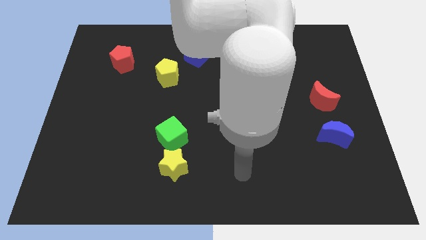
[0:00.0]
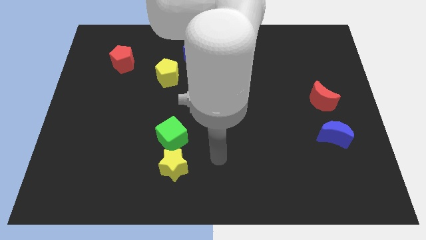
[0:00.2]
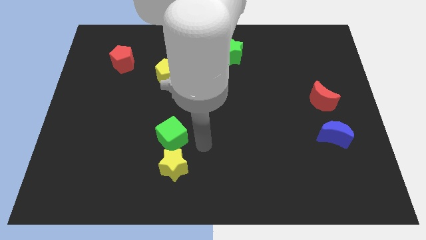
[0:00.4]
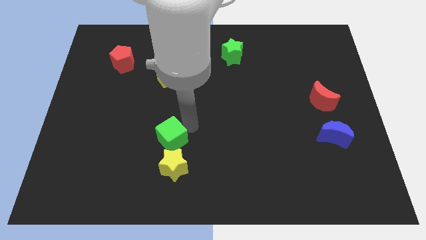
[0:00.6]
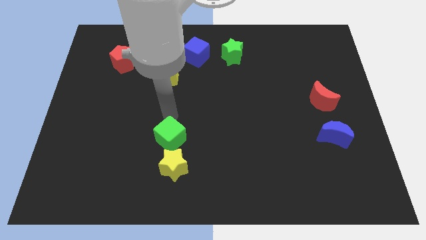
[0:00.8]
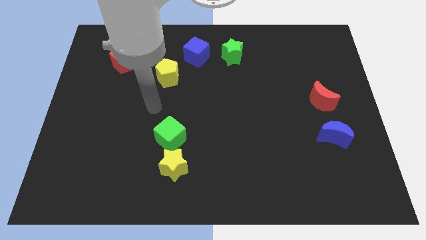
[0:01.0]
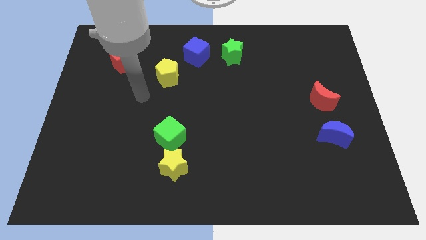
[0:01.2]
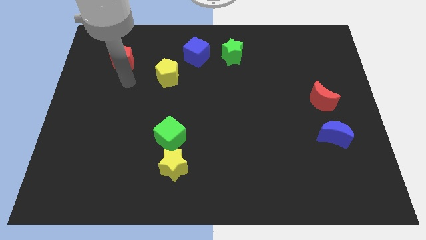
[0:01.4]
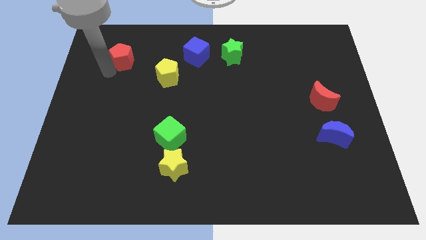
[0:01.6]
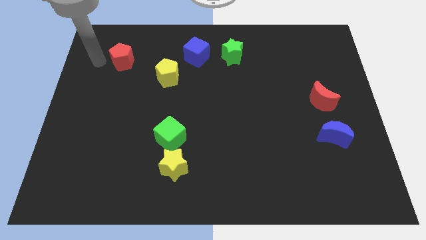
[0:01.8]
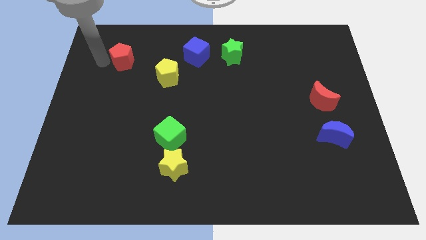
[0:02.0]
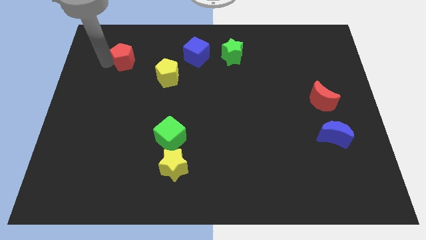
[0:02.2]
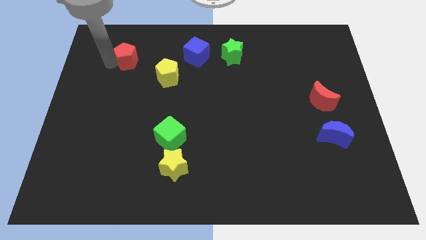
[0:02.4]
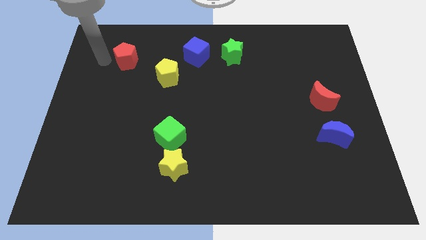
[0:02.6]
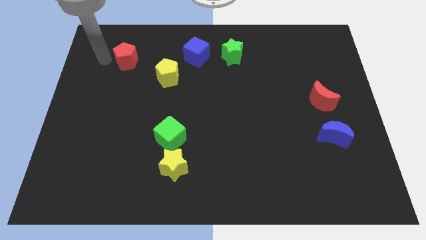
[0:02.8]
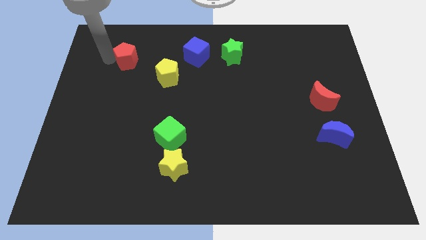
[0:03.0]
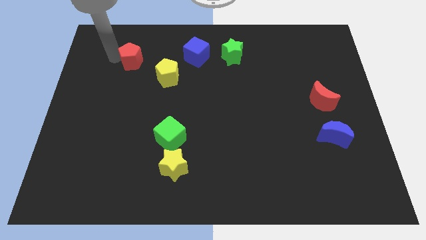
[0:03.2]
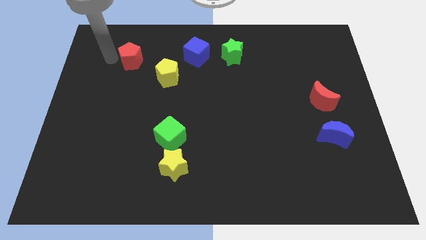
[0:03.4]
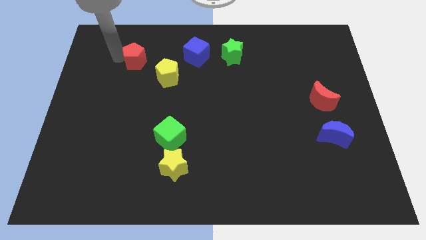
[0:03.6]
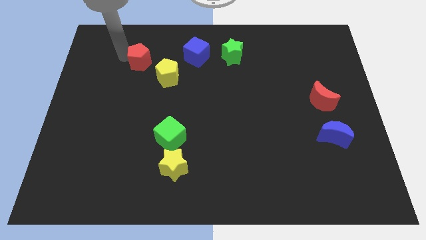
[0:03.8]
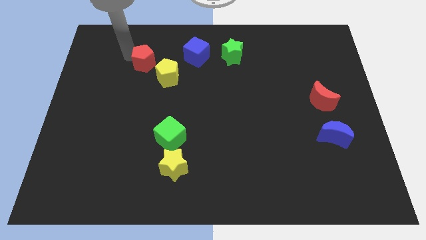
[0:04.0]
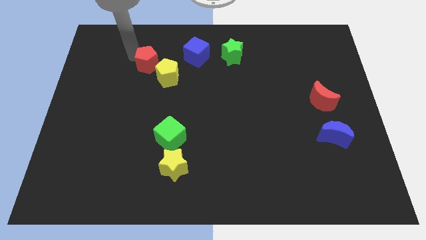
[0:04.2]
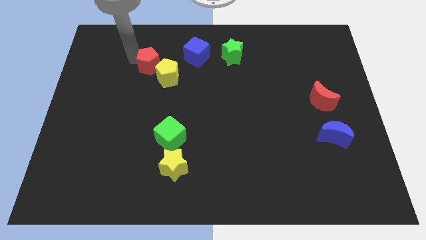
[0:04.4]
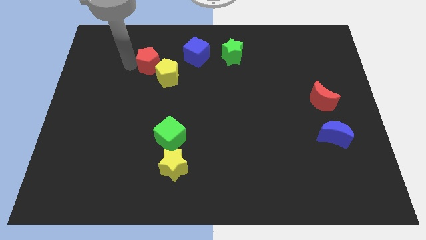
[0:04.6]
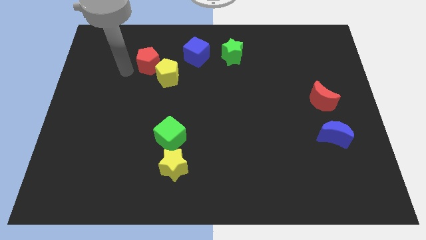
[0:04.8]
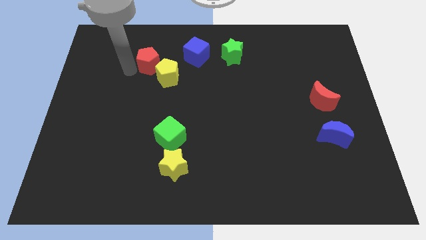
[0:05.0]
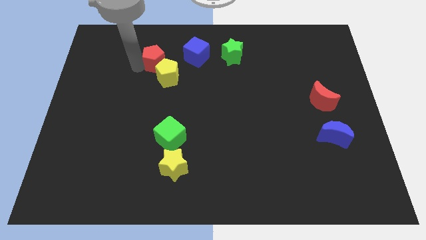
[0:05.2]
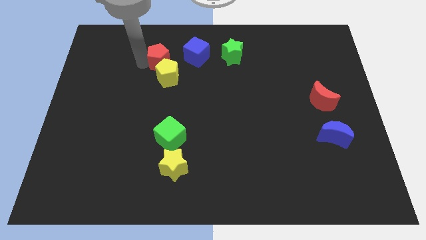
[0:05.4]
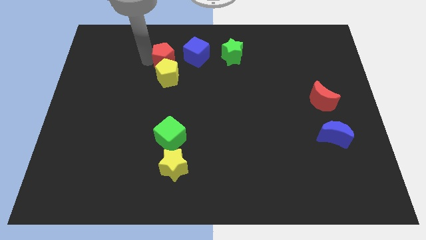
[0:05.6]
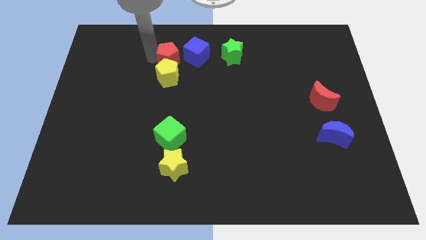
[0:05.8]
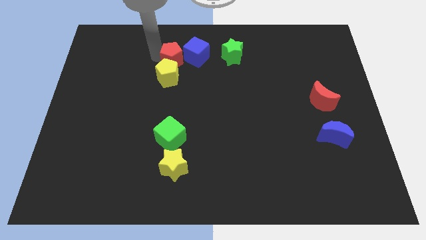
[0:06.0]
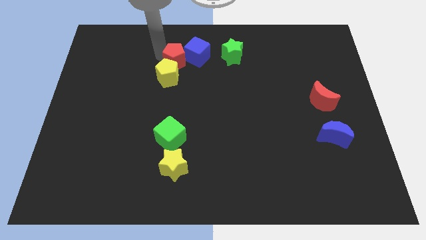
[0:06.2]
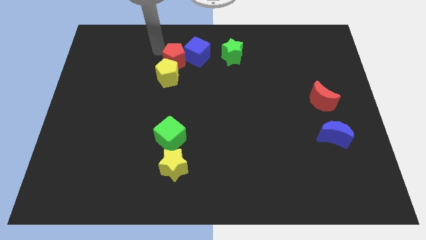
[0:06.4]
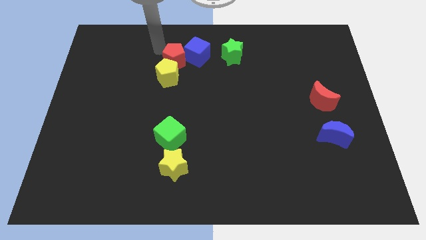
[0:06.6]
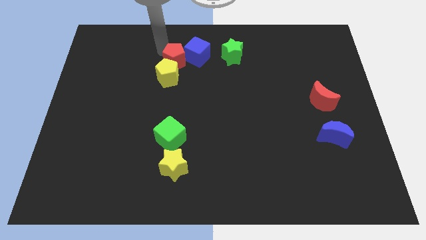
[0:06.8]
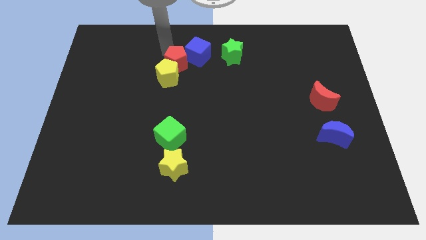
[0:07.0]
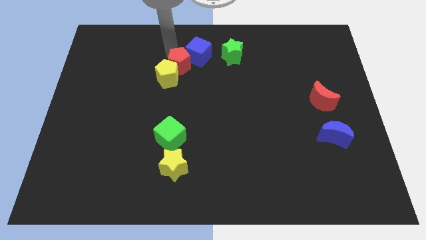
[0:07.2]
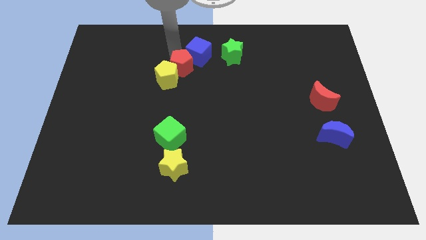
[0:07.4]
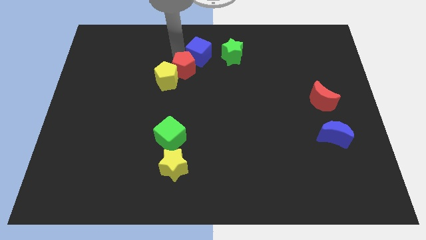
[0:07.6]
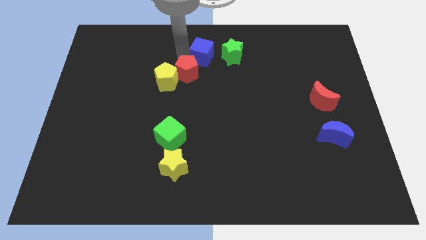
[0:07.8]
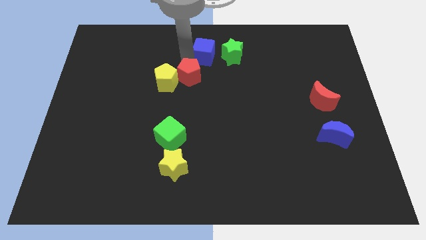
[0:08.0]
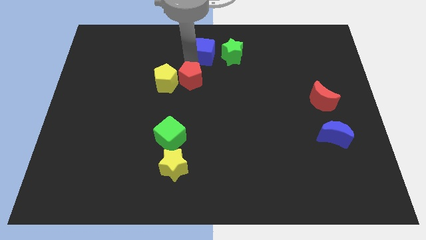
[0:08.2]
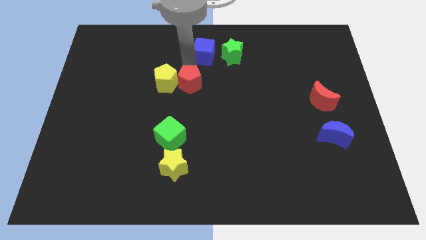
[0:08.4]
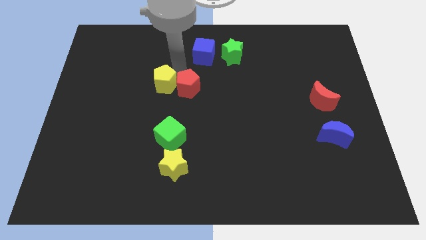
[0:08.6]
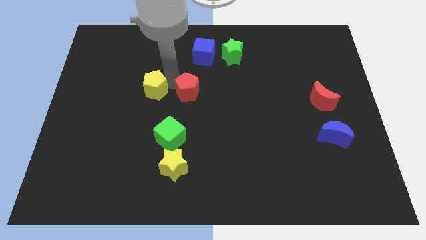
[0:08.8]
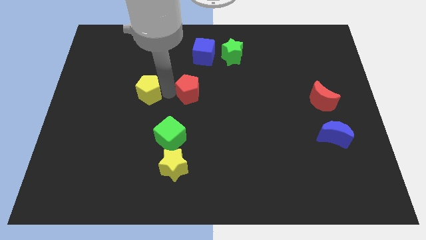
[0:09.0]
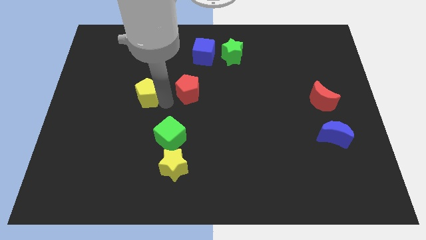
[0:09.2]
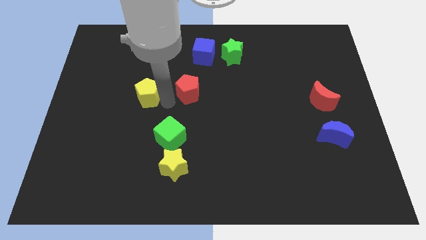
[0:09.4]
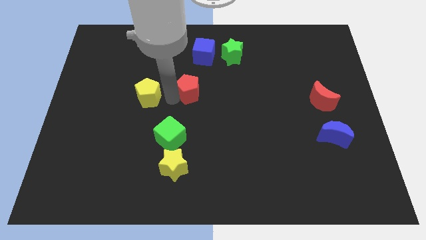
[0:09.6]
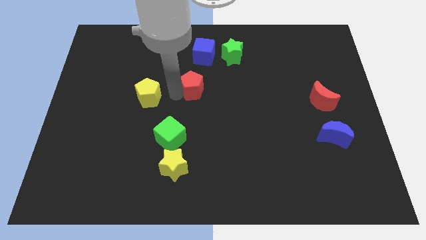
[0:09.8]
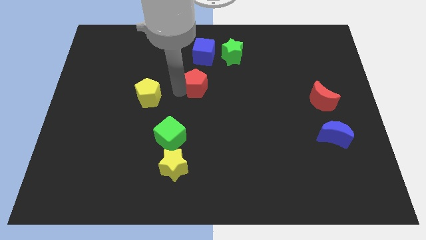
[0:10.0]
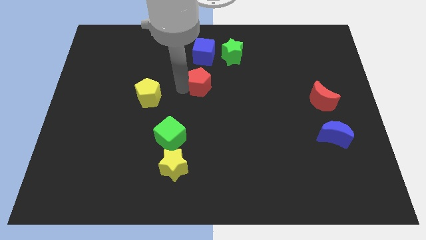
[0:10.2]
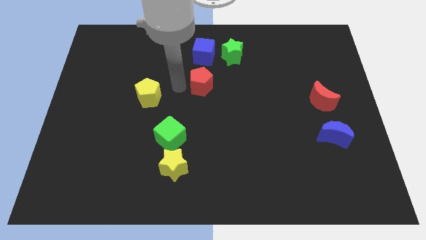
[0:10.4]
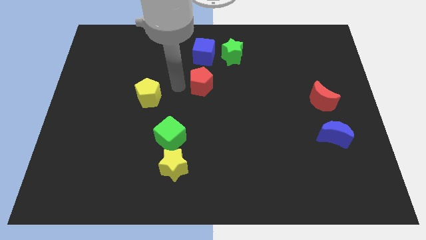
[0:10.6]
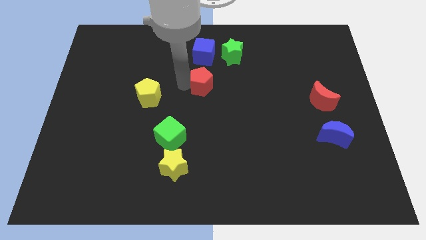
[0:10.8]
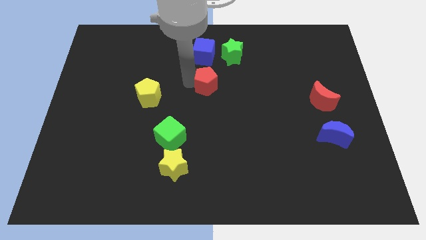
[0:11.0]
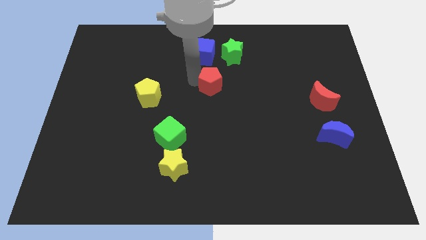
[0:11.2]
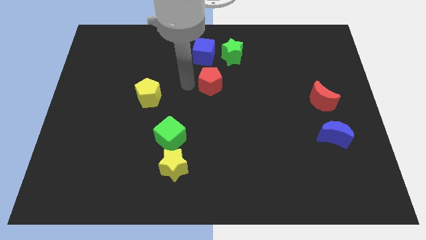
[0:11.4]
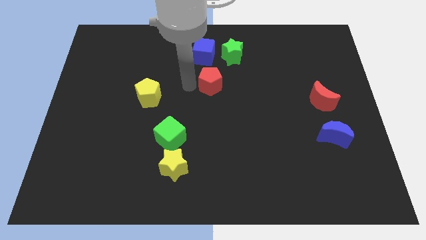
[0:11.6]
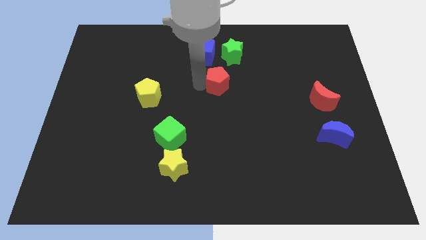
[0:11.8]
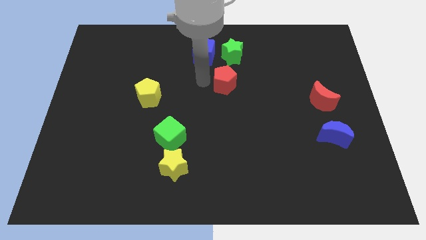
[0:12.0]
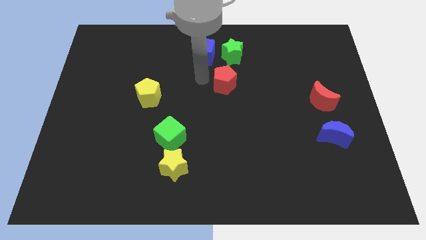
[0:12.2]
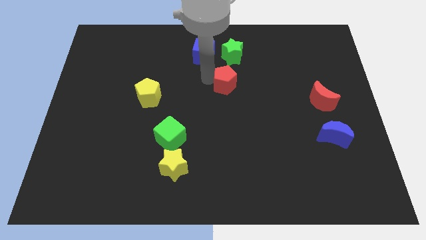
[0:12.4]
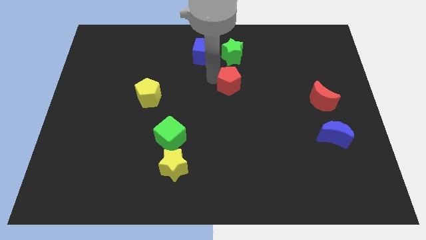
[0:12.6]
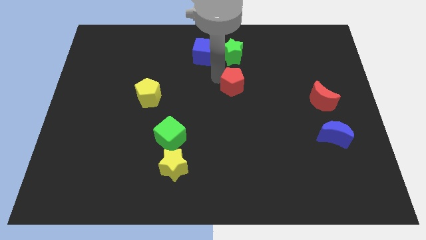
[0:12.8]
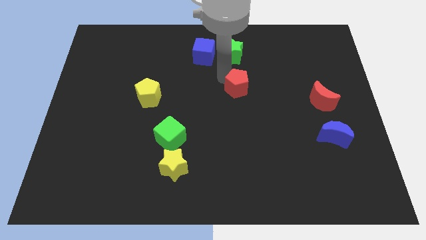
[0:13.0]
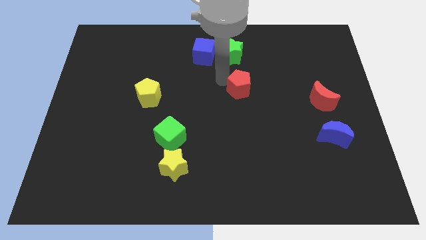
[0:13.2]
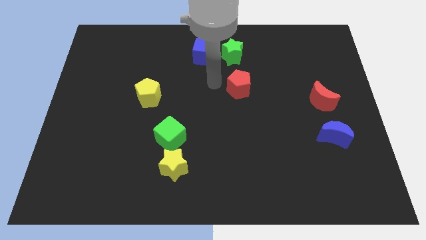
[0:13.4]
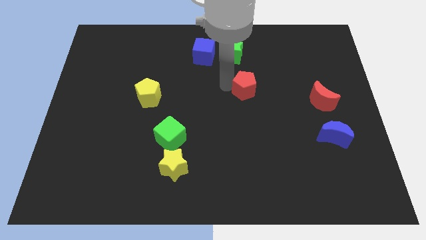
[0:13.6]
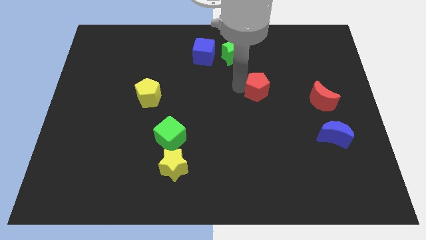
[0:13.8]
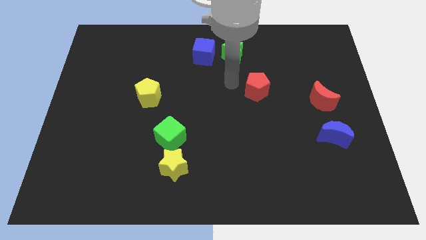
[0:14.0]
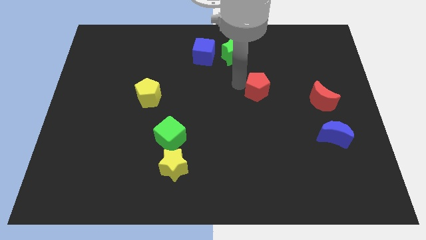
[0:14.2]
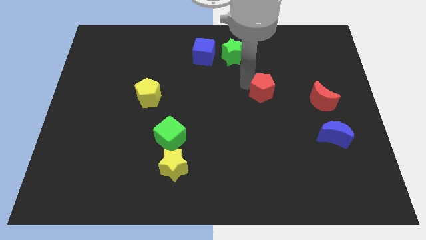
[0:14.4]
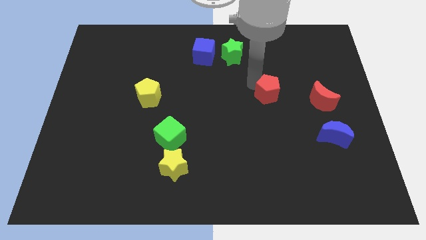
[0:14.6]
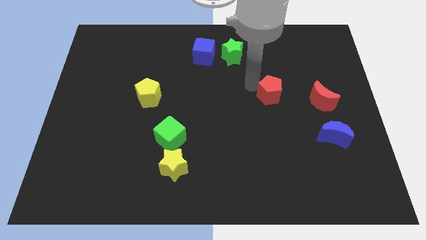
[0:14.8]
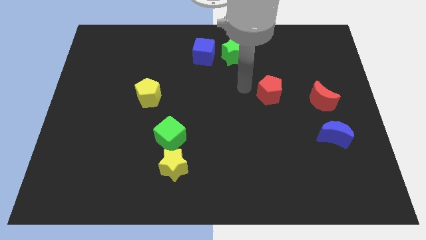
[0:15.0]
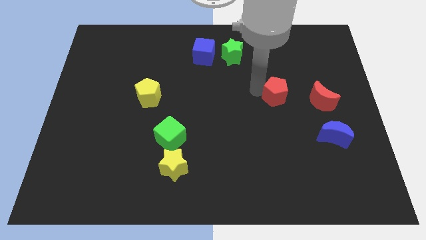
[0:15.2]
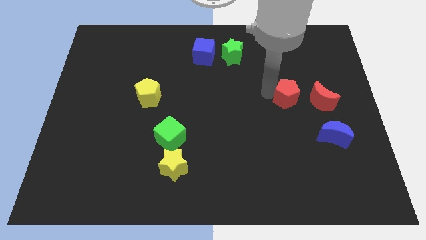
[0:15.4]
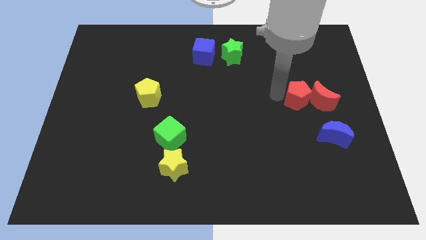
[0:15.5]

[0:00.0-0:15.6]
put the red pentagon to the red moon
